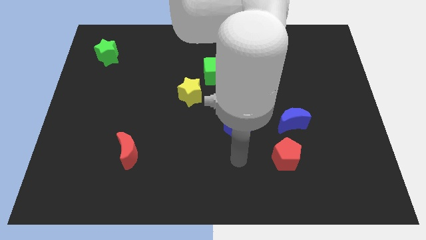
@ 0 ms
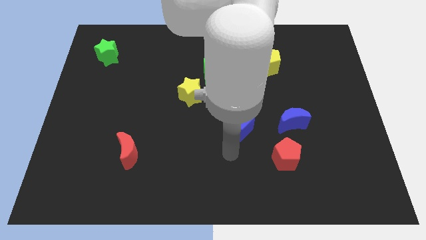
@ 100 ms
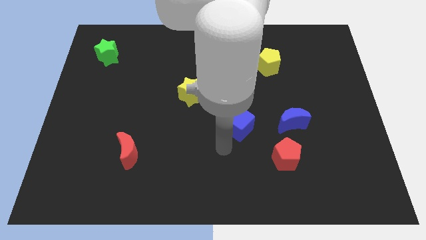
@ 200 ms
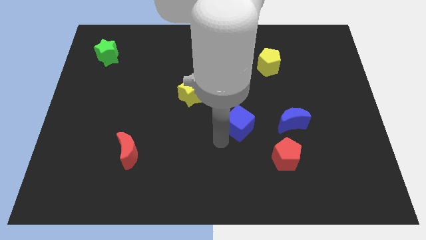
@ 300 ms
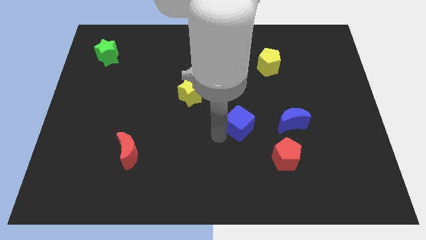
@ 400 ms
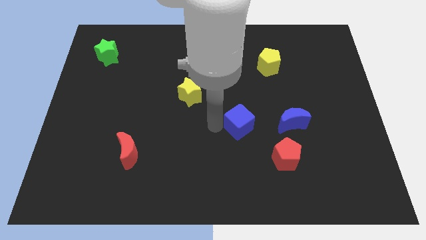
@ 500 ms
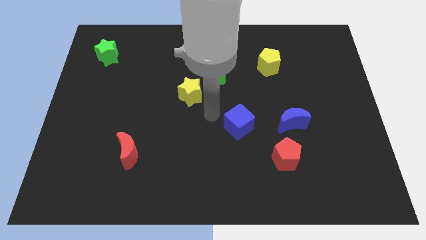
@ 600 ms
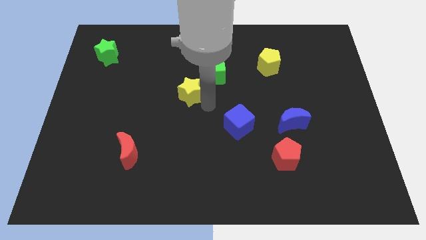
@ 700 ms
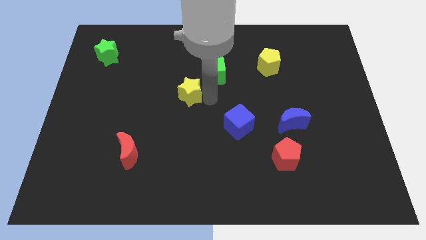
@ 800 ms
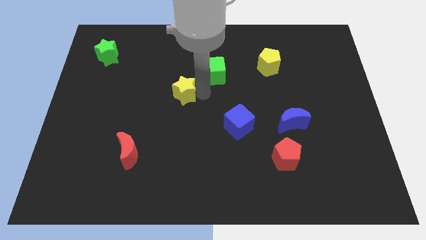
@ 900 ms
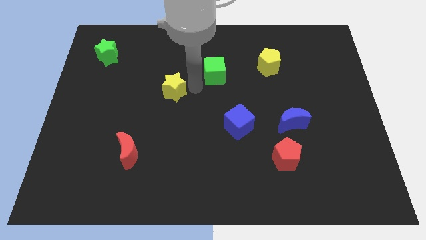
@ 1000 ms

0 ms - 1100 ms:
move the green cube away from the yellow star

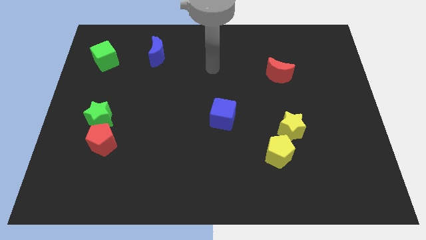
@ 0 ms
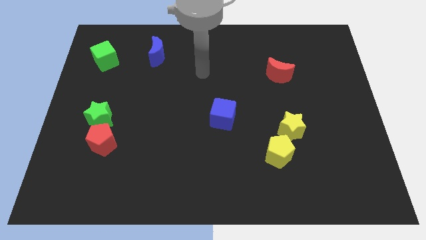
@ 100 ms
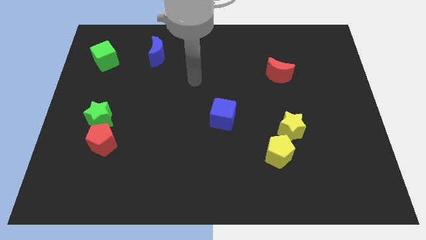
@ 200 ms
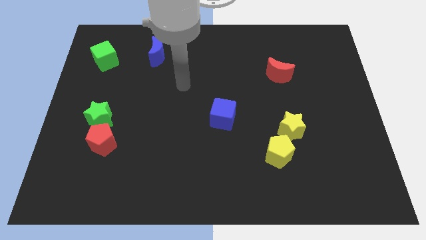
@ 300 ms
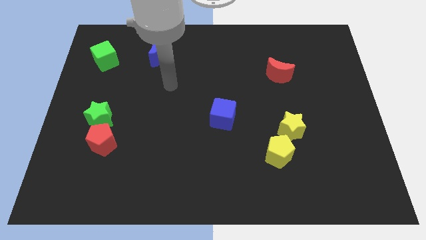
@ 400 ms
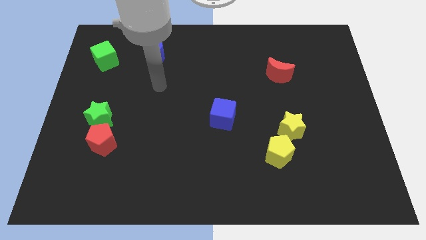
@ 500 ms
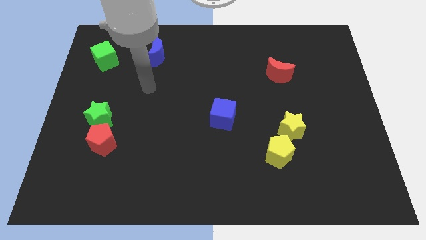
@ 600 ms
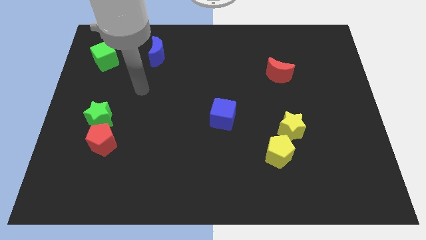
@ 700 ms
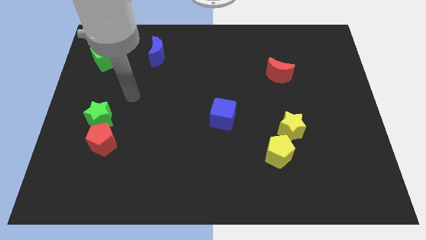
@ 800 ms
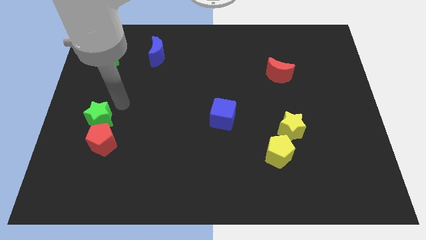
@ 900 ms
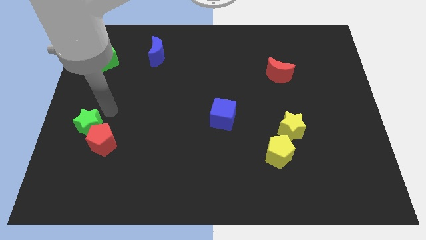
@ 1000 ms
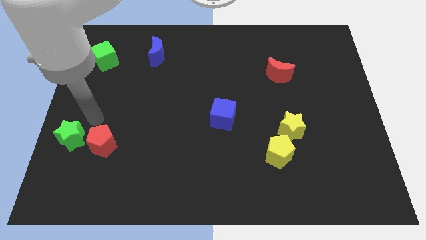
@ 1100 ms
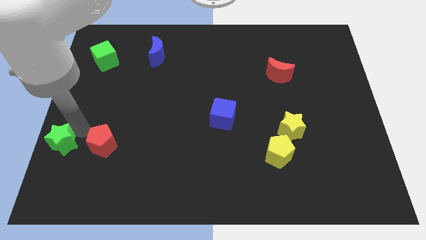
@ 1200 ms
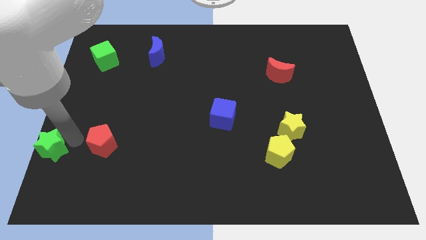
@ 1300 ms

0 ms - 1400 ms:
separate the red pentagon from the green star

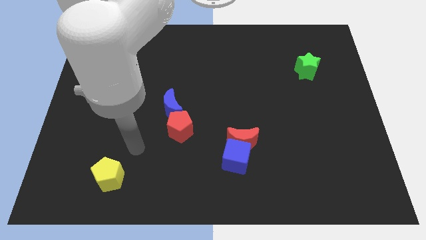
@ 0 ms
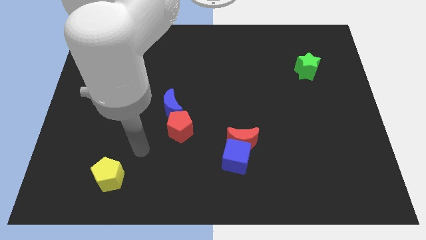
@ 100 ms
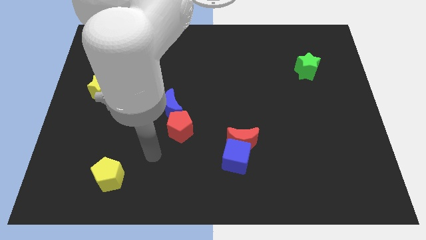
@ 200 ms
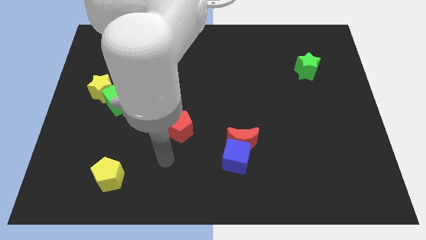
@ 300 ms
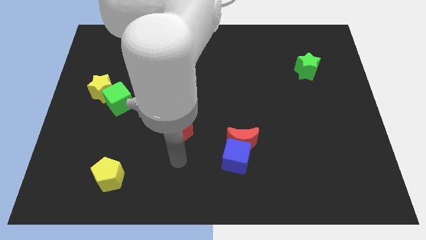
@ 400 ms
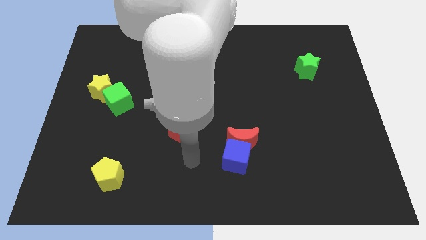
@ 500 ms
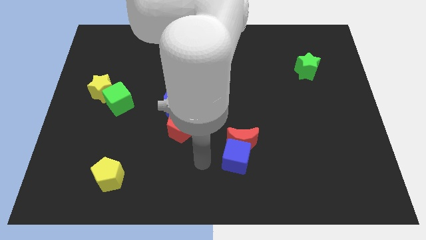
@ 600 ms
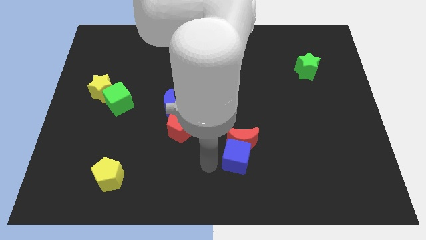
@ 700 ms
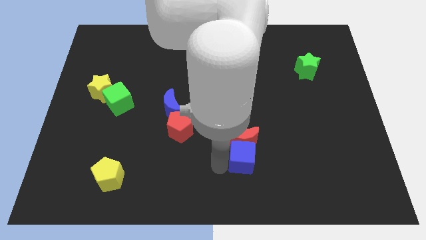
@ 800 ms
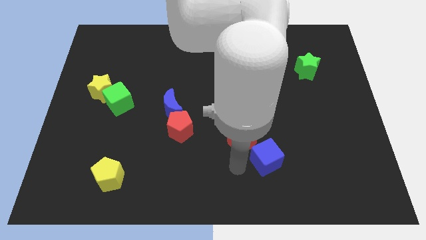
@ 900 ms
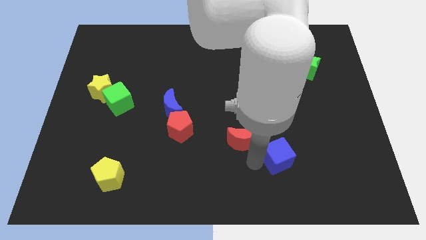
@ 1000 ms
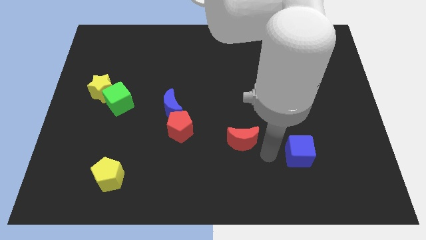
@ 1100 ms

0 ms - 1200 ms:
pull the red moon apart from the blue cube

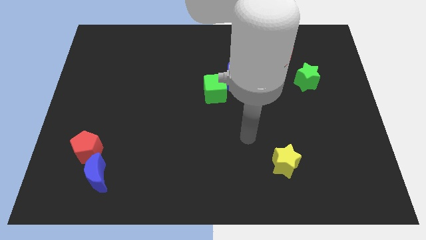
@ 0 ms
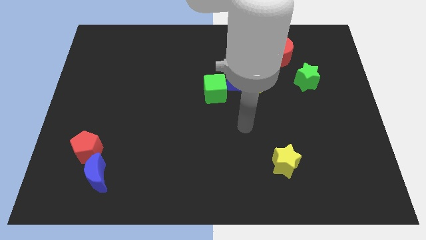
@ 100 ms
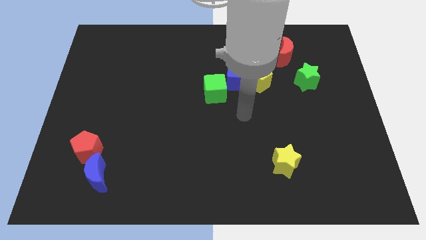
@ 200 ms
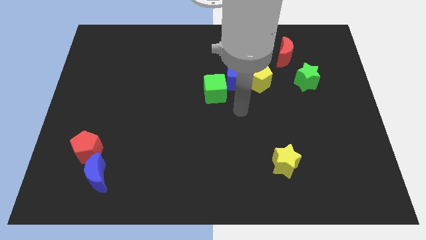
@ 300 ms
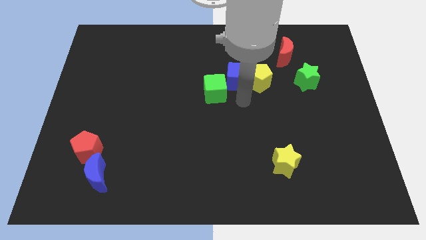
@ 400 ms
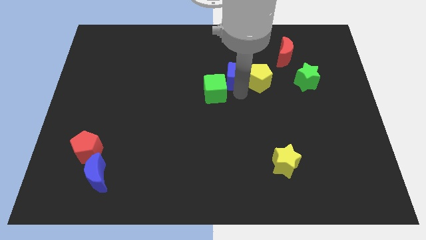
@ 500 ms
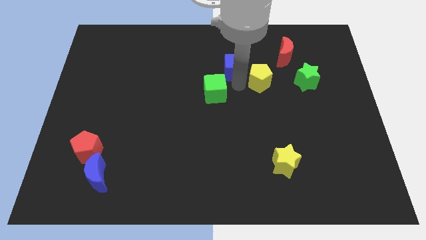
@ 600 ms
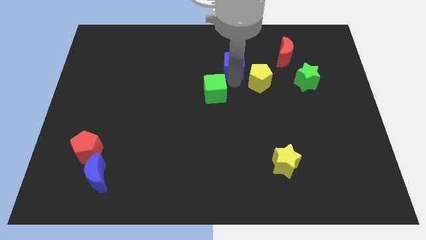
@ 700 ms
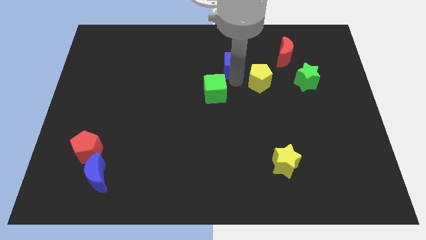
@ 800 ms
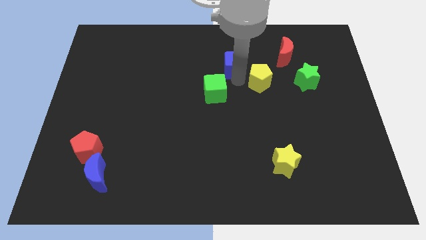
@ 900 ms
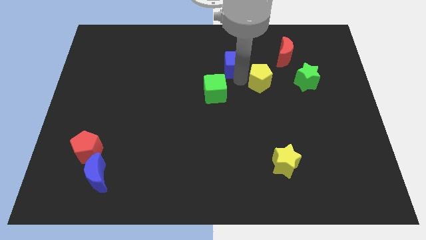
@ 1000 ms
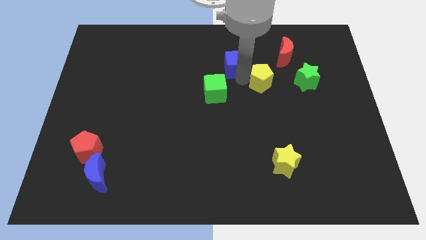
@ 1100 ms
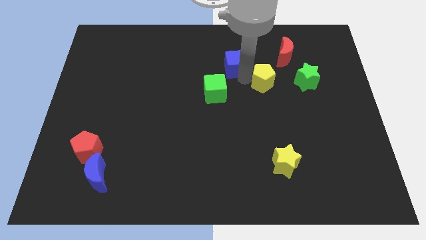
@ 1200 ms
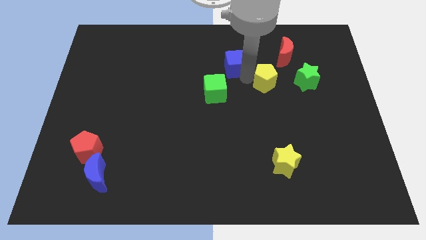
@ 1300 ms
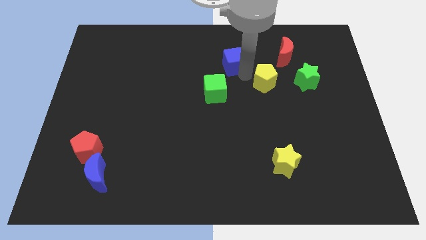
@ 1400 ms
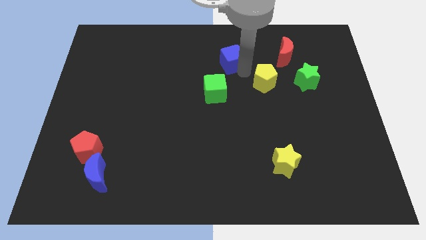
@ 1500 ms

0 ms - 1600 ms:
move the yellow pentagon away from the blue cube

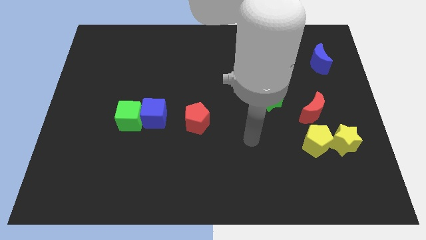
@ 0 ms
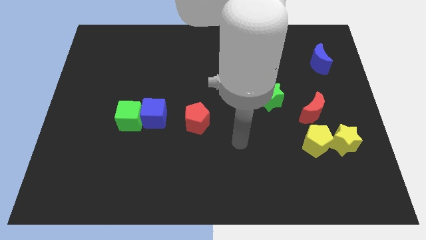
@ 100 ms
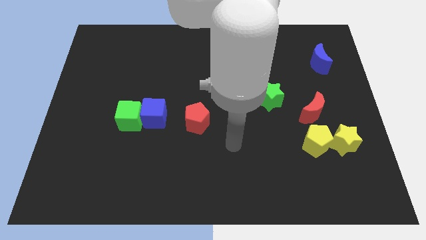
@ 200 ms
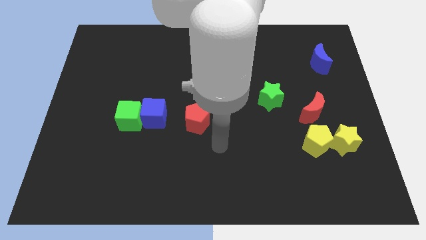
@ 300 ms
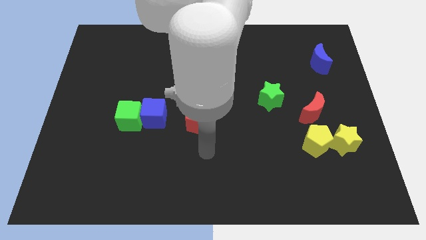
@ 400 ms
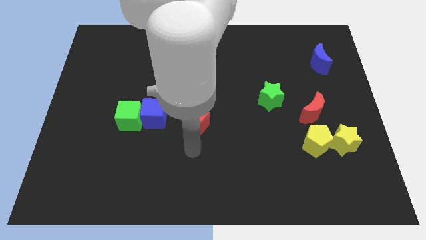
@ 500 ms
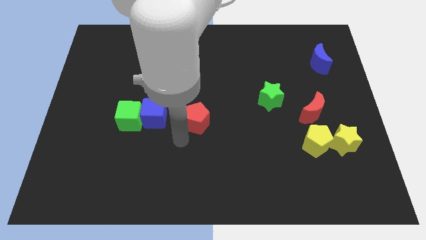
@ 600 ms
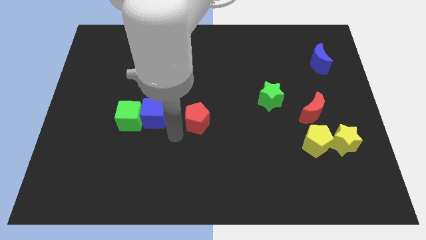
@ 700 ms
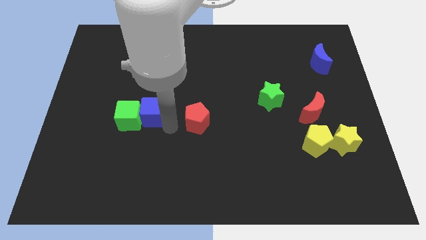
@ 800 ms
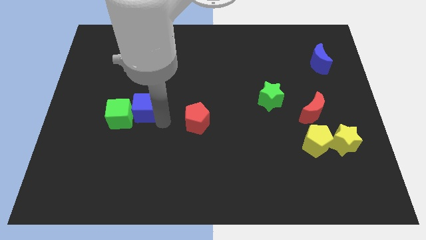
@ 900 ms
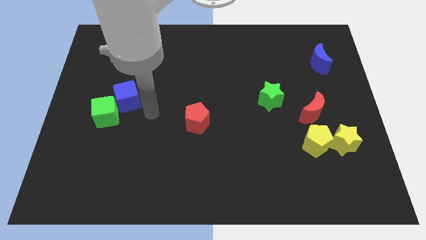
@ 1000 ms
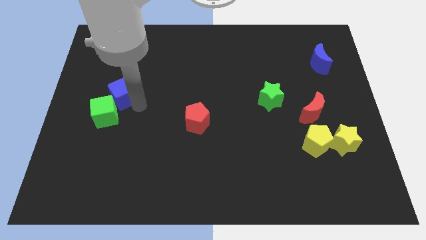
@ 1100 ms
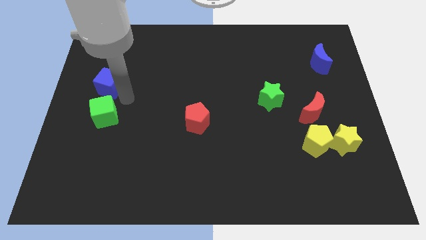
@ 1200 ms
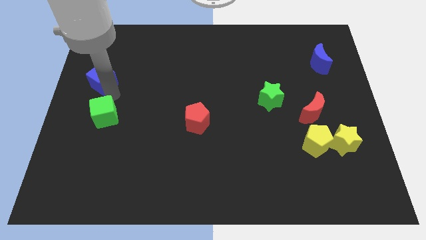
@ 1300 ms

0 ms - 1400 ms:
separate the green cube from the blue cube

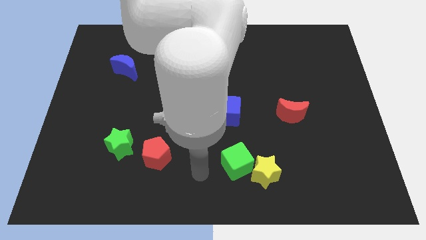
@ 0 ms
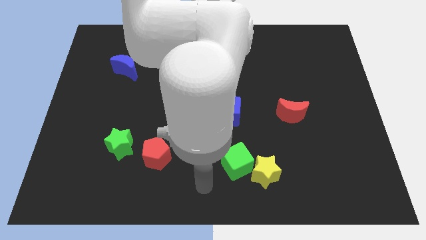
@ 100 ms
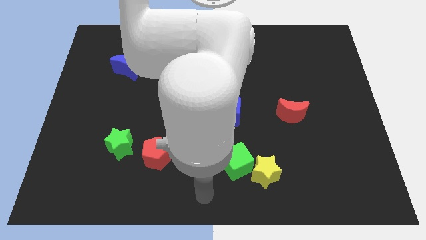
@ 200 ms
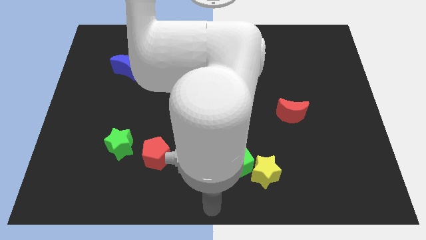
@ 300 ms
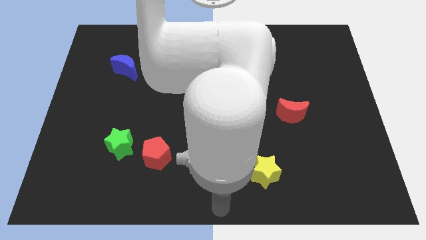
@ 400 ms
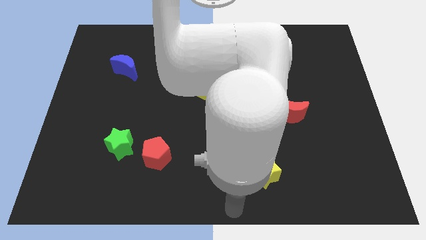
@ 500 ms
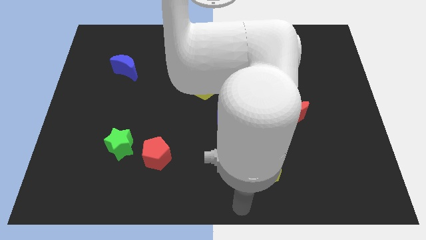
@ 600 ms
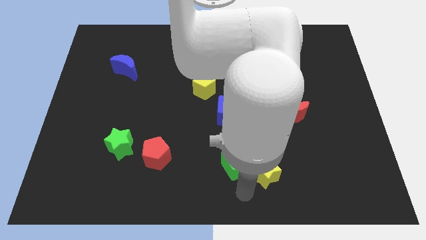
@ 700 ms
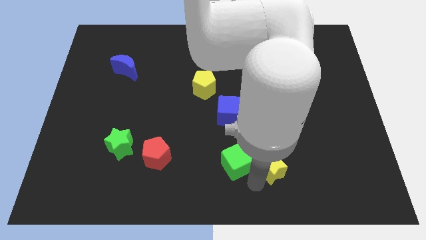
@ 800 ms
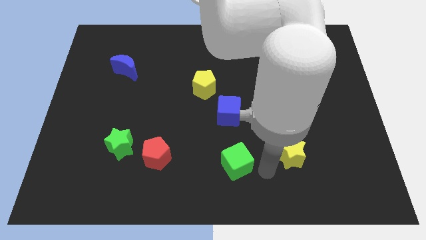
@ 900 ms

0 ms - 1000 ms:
pull the green cube apart from the yellow star

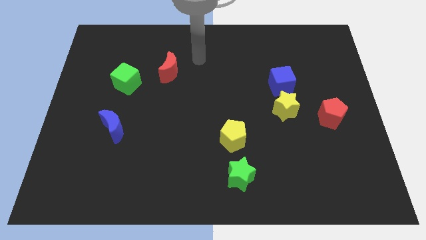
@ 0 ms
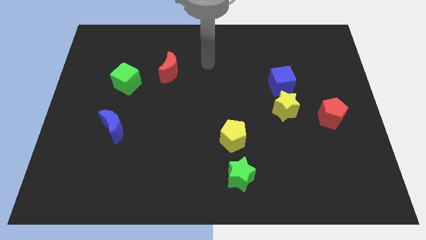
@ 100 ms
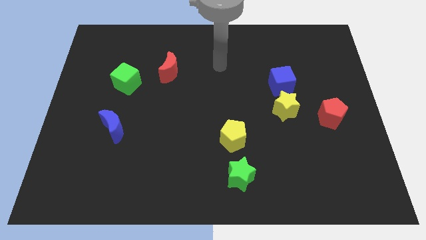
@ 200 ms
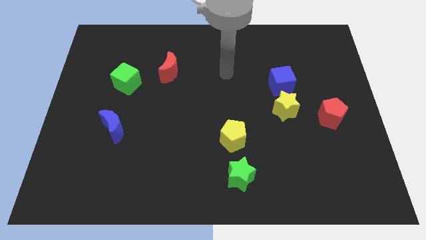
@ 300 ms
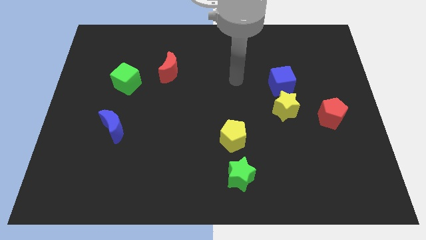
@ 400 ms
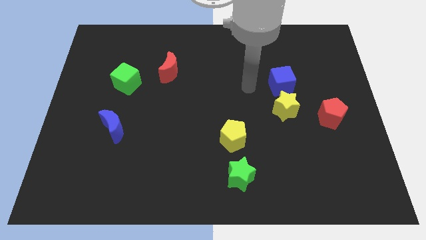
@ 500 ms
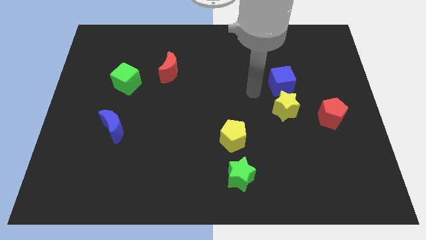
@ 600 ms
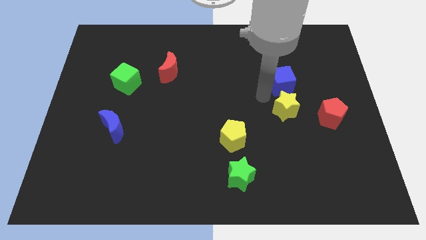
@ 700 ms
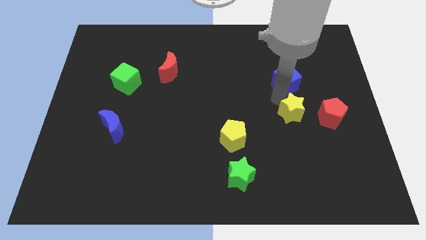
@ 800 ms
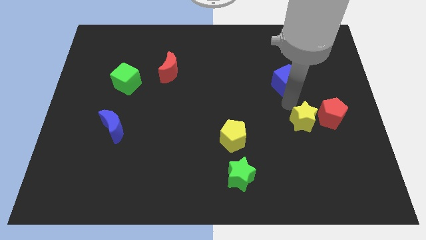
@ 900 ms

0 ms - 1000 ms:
separate the blue cube from the yellow star

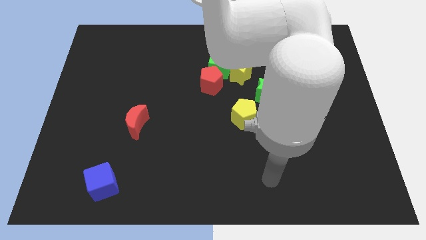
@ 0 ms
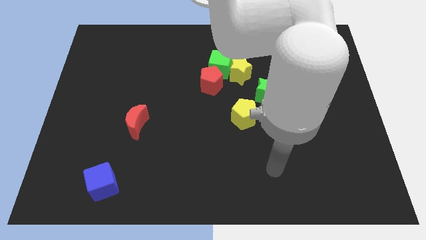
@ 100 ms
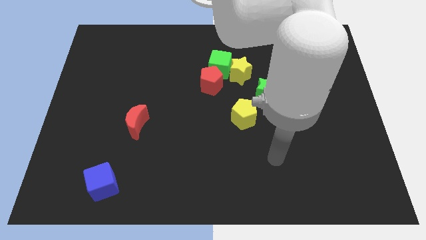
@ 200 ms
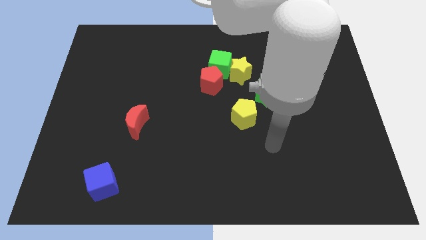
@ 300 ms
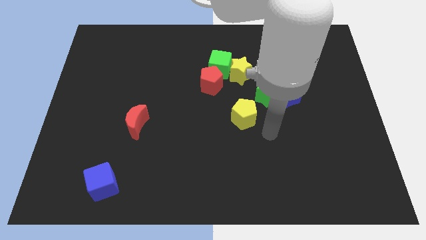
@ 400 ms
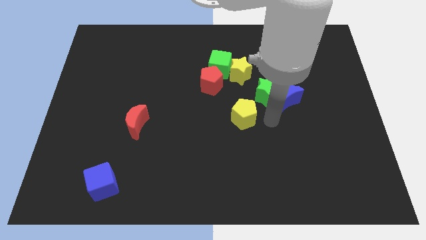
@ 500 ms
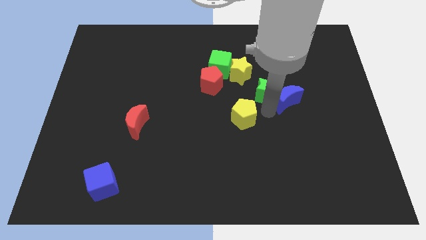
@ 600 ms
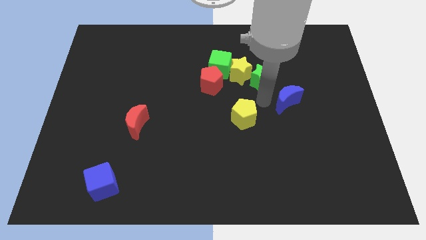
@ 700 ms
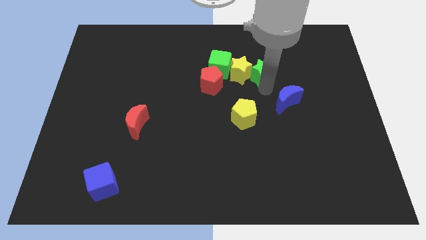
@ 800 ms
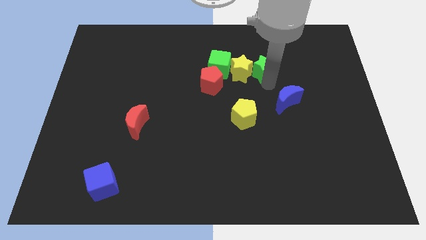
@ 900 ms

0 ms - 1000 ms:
move the blue moon away from the green star
